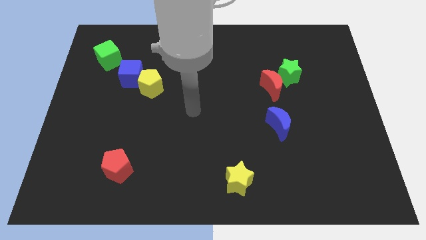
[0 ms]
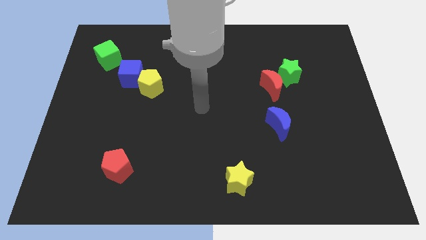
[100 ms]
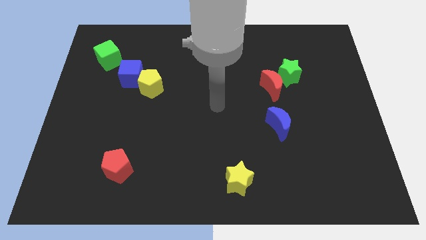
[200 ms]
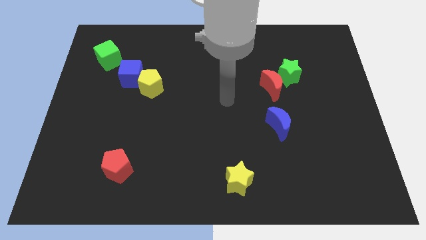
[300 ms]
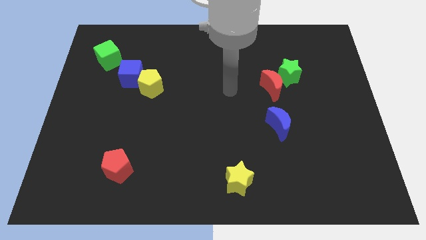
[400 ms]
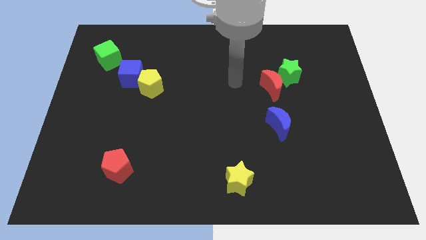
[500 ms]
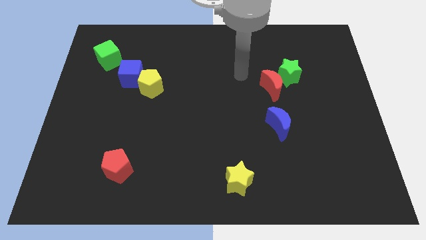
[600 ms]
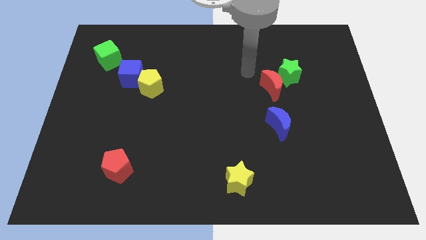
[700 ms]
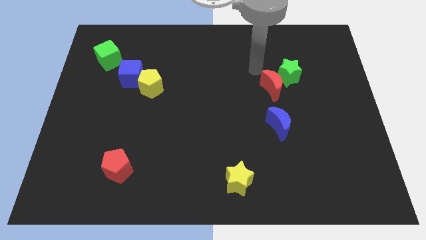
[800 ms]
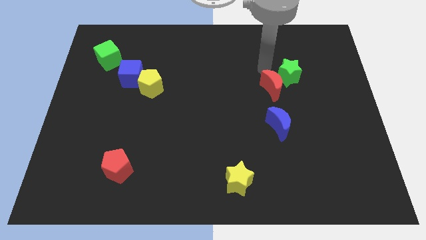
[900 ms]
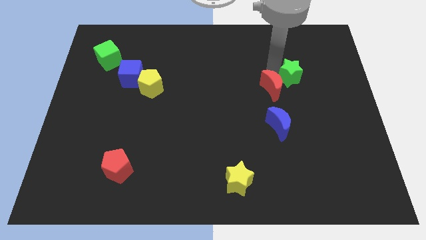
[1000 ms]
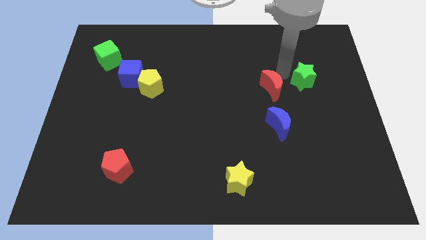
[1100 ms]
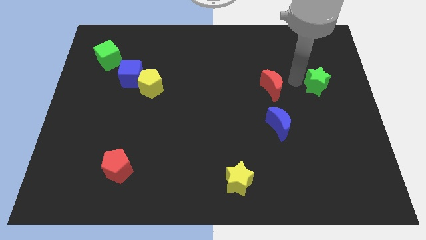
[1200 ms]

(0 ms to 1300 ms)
pull the red moon apart from the green star

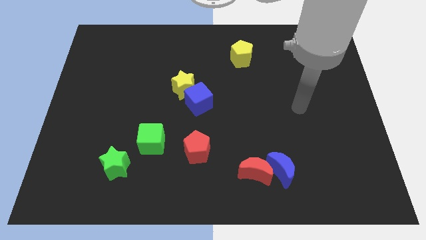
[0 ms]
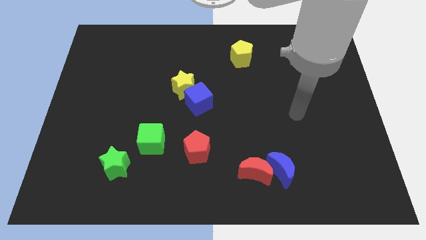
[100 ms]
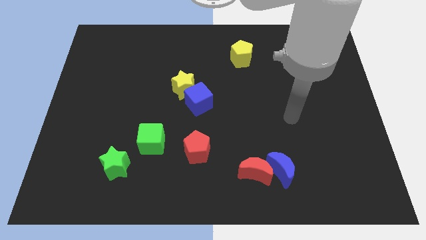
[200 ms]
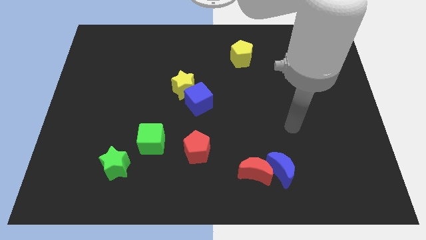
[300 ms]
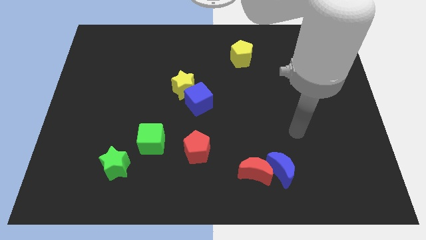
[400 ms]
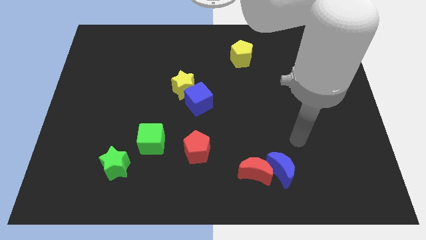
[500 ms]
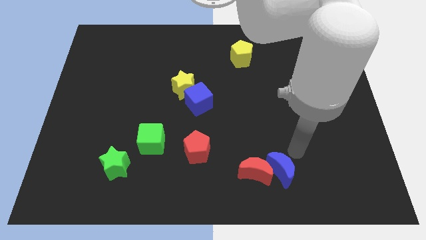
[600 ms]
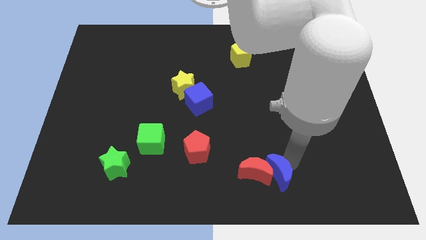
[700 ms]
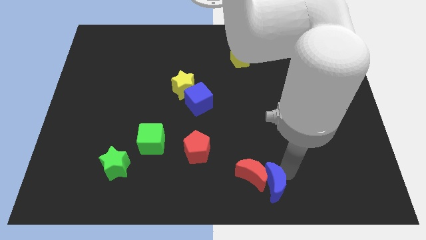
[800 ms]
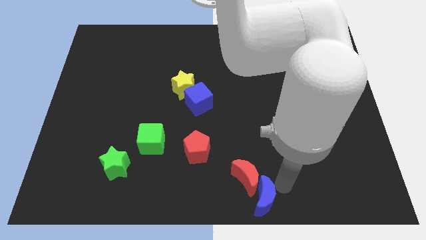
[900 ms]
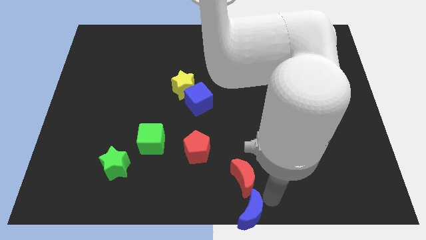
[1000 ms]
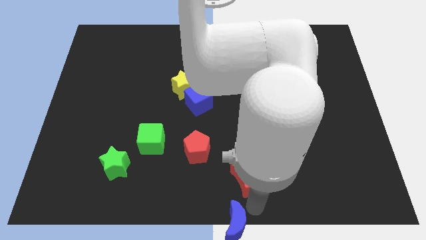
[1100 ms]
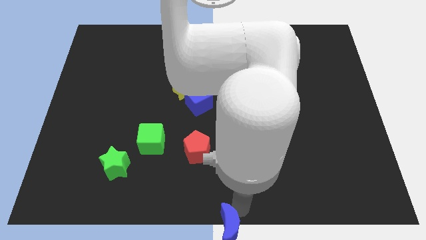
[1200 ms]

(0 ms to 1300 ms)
pull the red moon apart from the blue moon

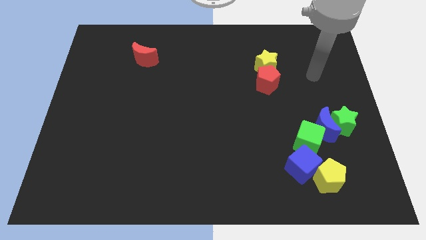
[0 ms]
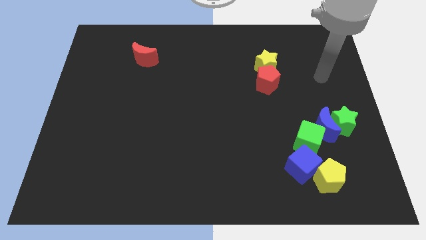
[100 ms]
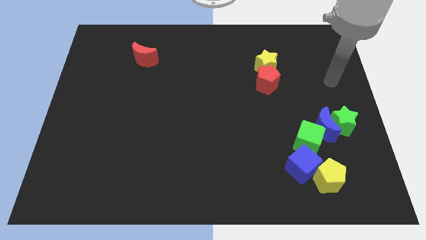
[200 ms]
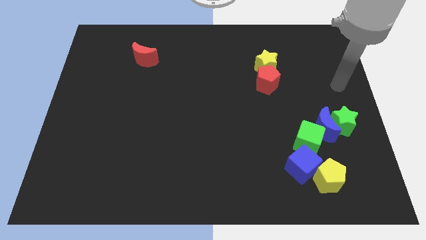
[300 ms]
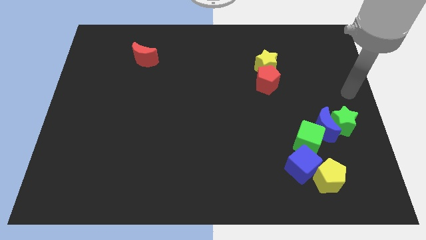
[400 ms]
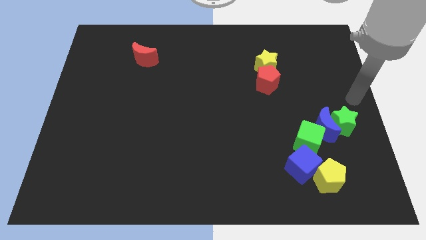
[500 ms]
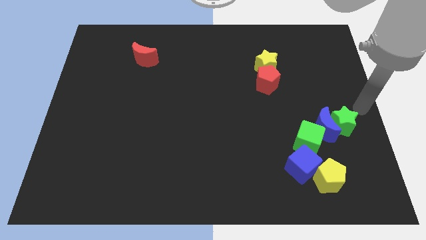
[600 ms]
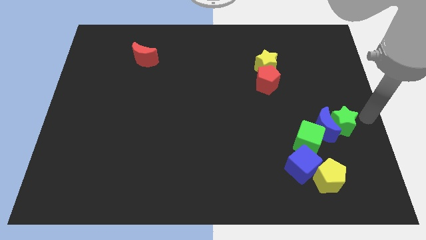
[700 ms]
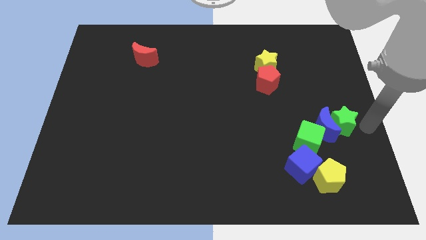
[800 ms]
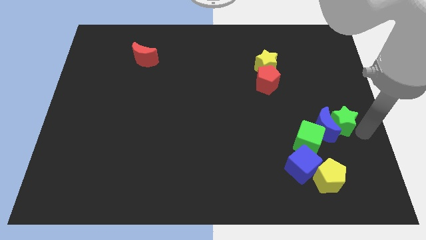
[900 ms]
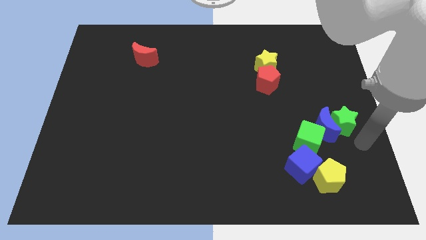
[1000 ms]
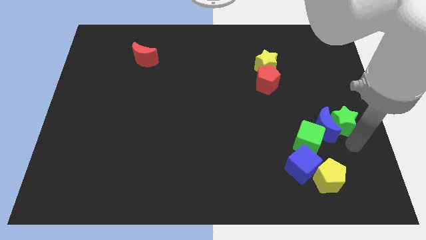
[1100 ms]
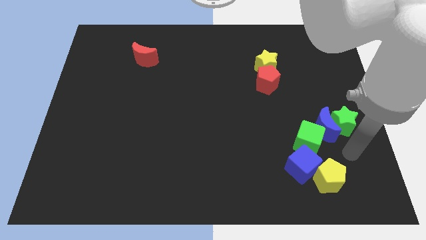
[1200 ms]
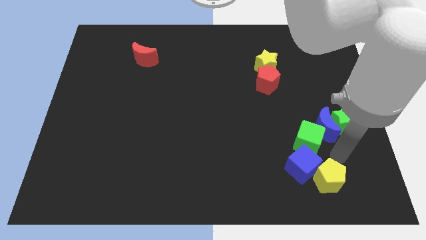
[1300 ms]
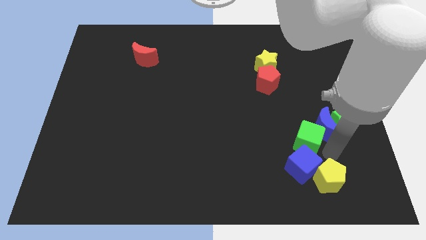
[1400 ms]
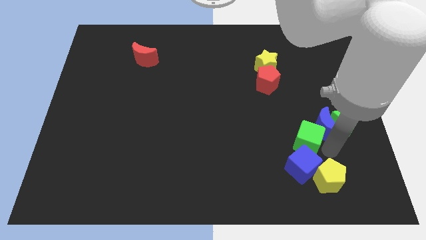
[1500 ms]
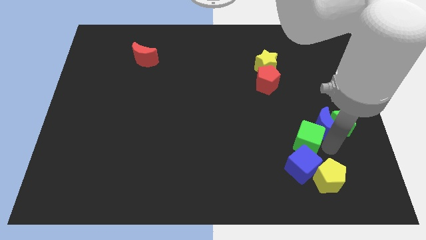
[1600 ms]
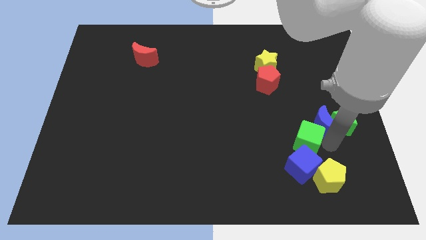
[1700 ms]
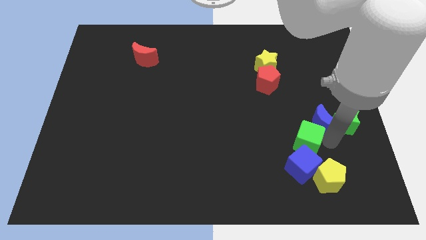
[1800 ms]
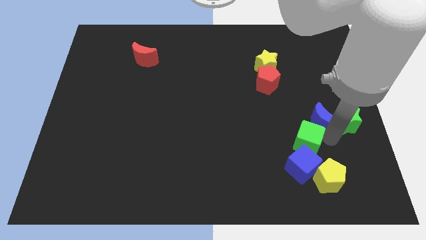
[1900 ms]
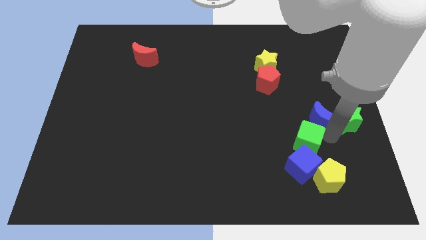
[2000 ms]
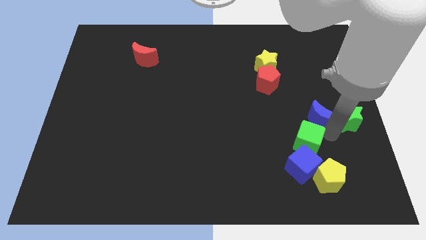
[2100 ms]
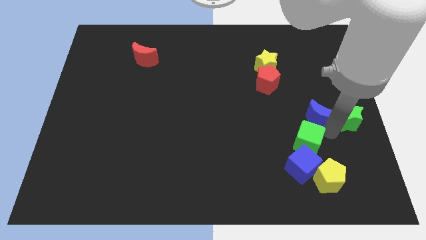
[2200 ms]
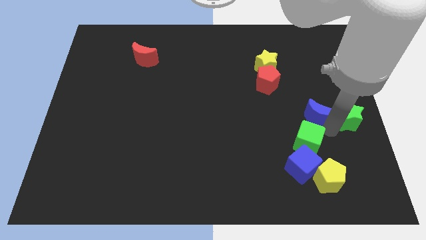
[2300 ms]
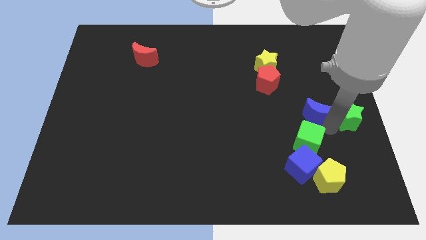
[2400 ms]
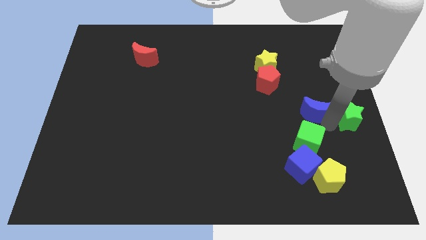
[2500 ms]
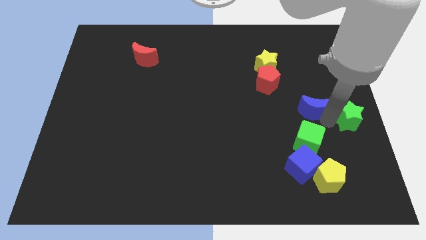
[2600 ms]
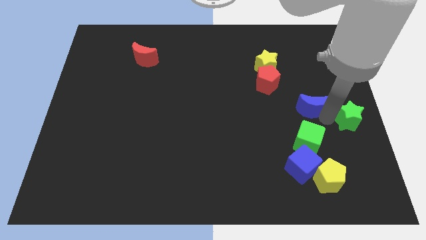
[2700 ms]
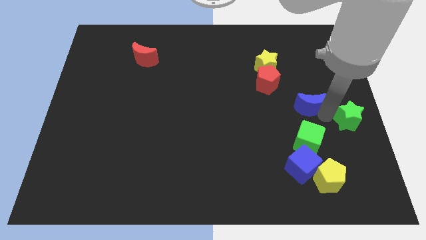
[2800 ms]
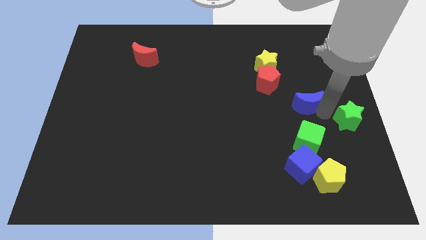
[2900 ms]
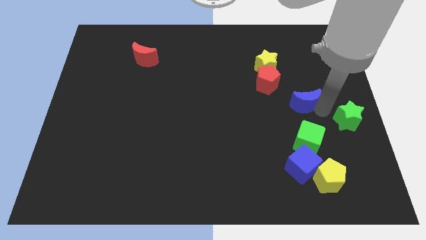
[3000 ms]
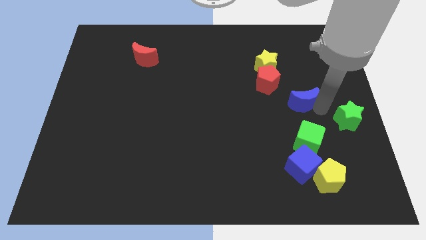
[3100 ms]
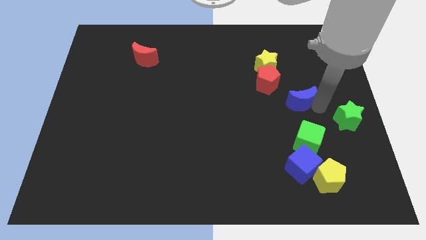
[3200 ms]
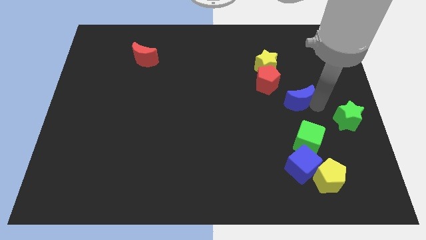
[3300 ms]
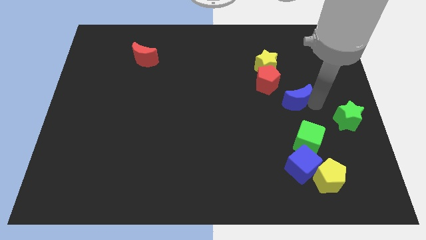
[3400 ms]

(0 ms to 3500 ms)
pull the blue moon apart from the green star and green cube

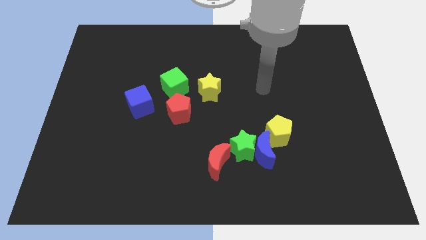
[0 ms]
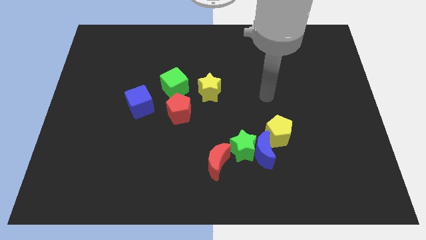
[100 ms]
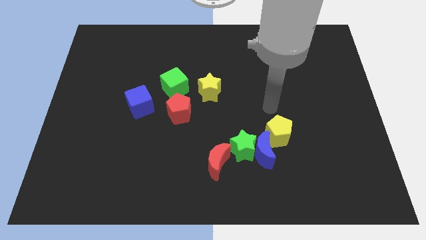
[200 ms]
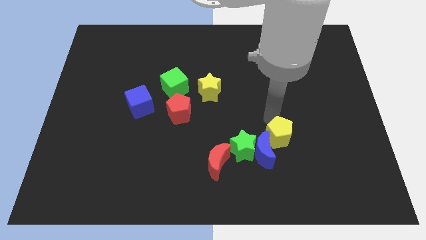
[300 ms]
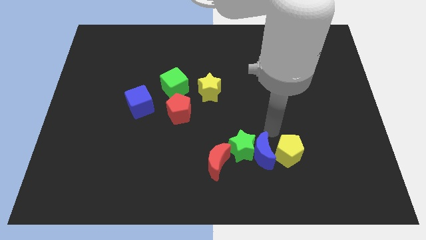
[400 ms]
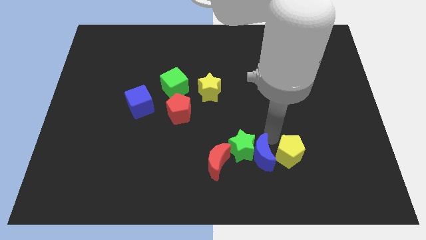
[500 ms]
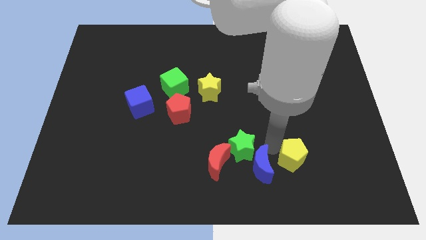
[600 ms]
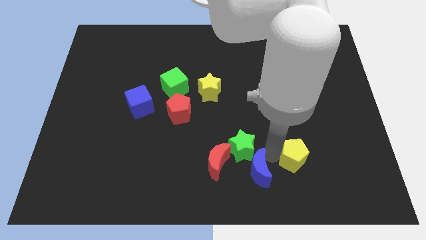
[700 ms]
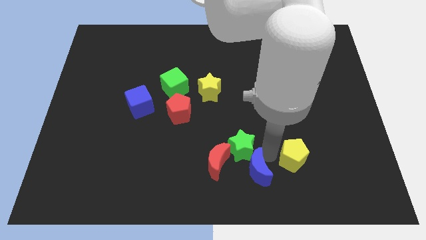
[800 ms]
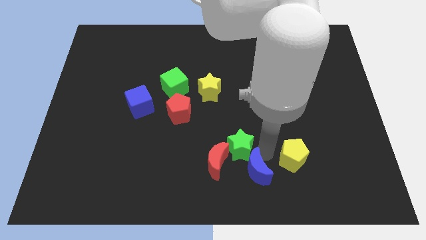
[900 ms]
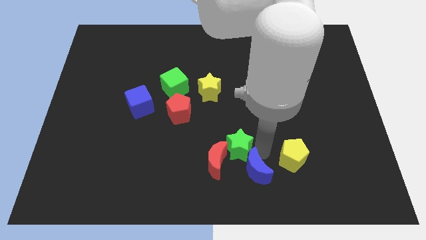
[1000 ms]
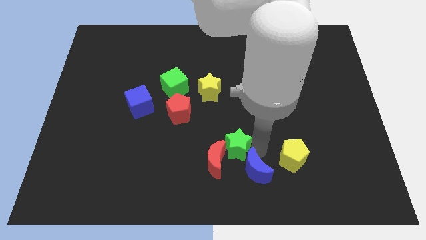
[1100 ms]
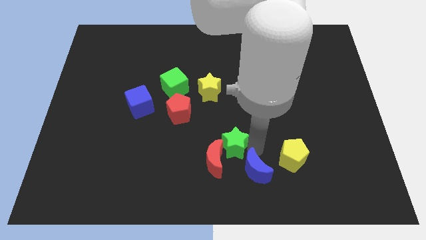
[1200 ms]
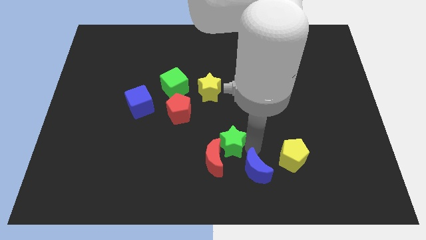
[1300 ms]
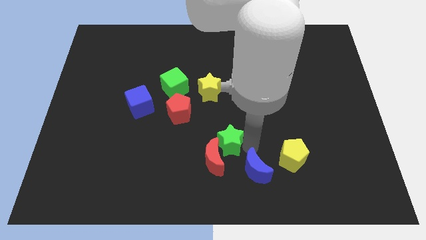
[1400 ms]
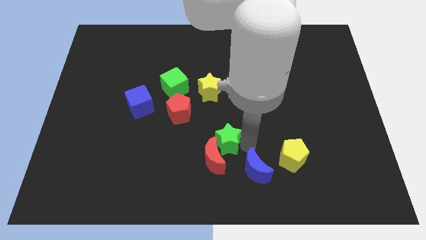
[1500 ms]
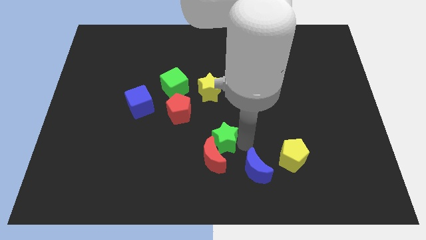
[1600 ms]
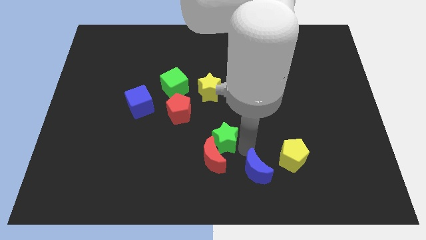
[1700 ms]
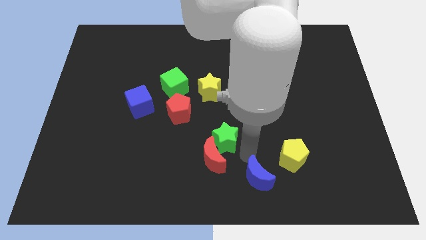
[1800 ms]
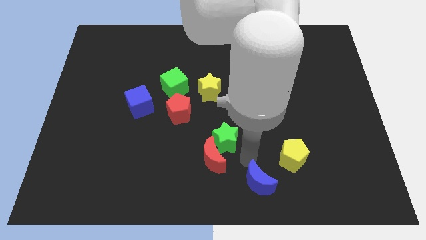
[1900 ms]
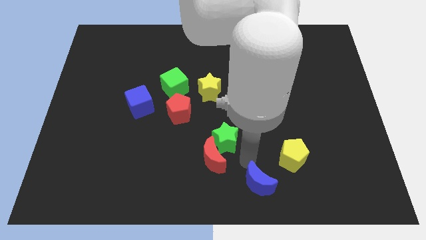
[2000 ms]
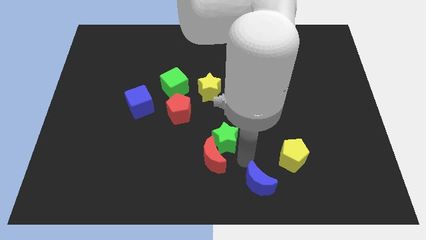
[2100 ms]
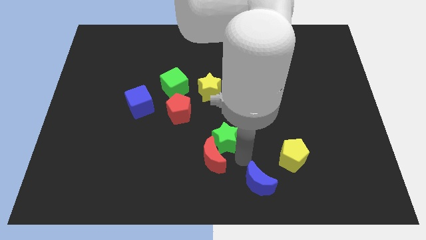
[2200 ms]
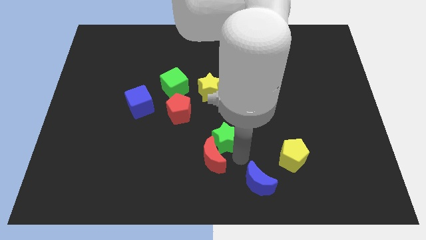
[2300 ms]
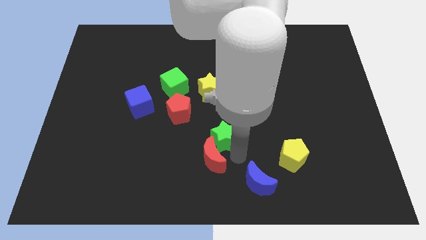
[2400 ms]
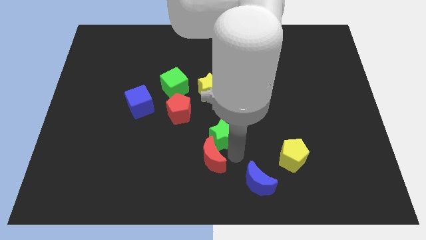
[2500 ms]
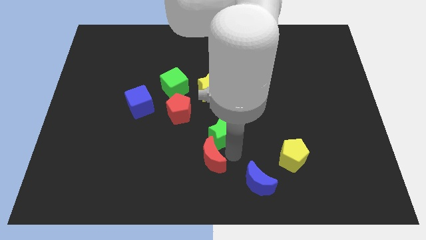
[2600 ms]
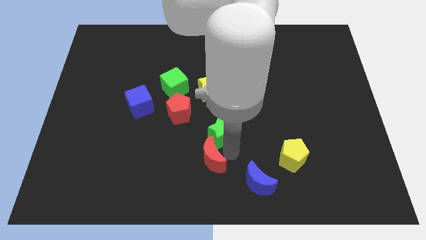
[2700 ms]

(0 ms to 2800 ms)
move the green star away from the group of blocks

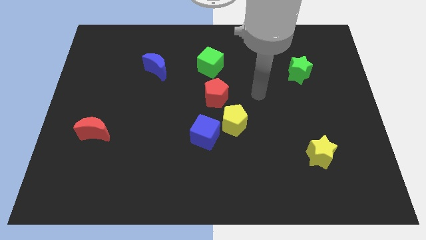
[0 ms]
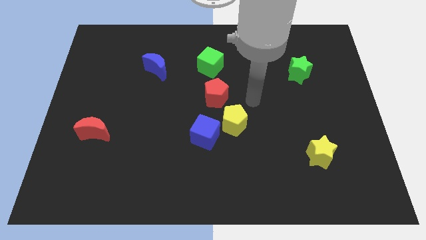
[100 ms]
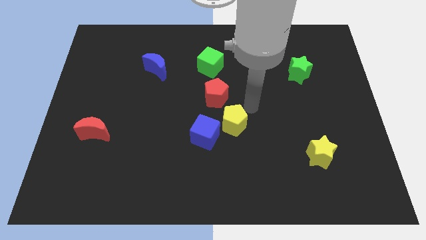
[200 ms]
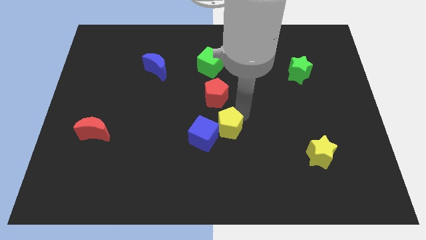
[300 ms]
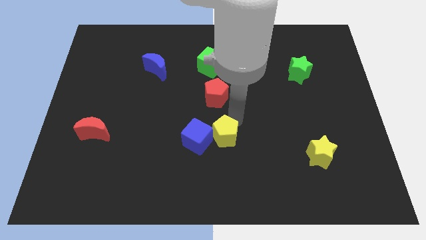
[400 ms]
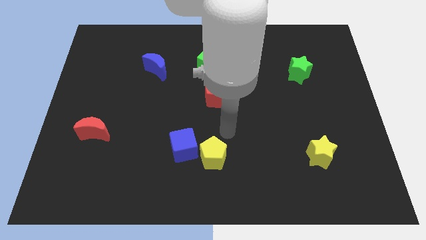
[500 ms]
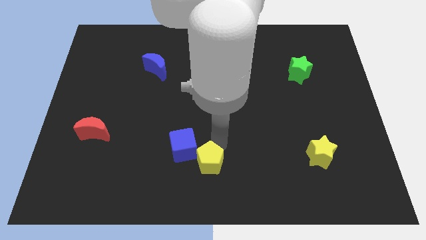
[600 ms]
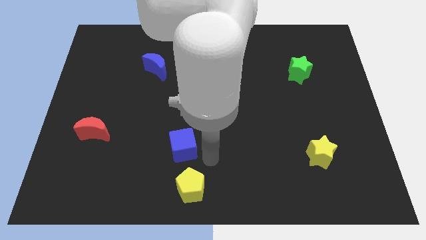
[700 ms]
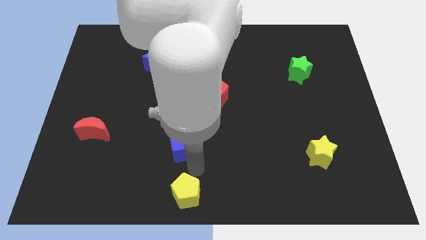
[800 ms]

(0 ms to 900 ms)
pull the blue cube apart from the yellow pentagon
